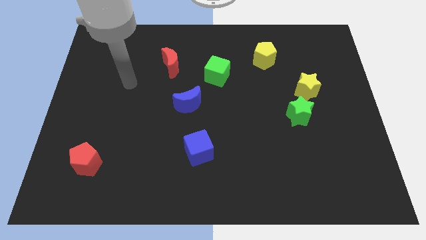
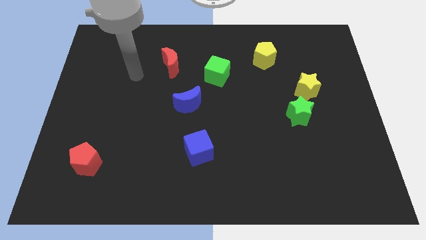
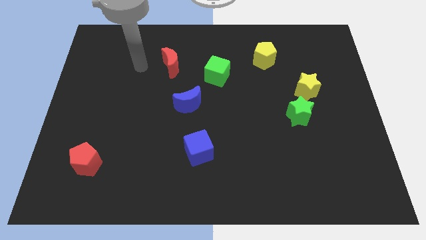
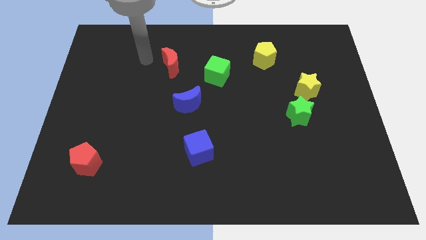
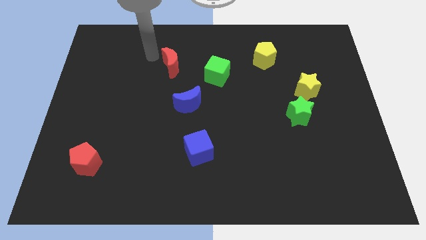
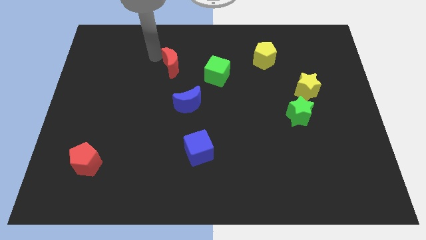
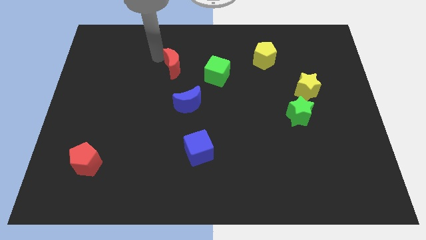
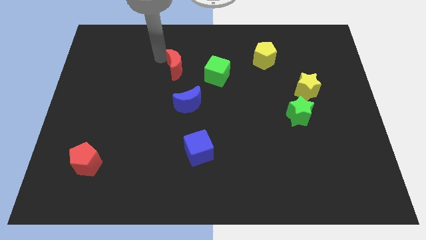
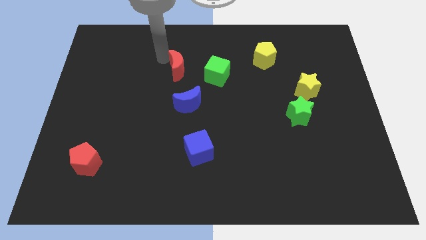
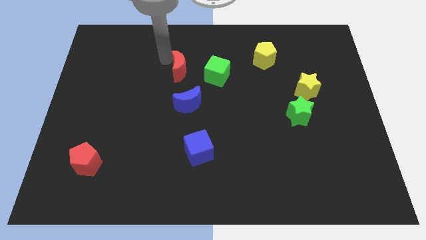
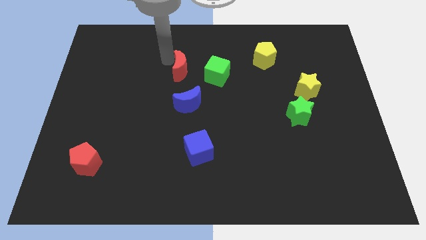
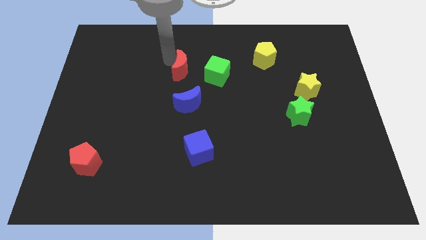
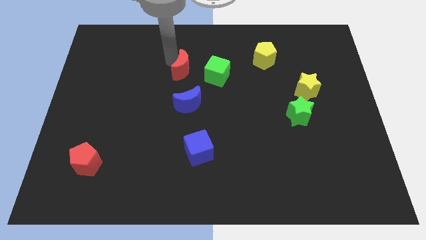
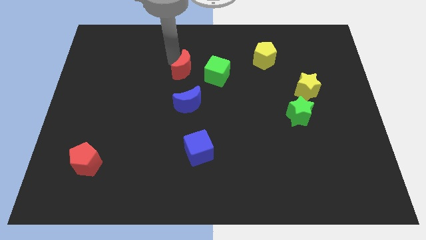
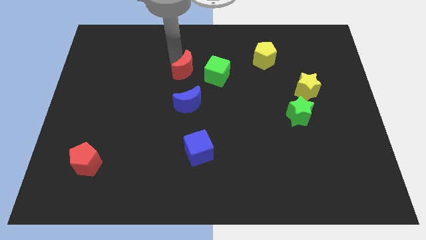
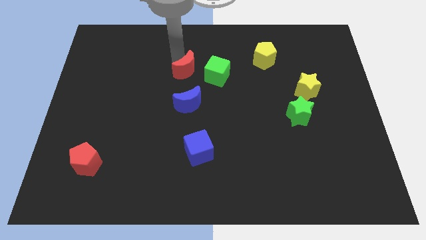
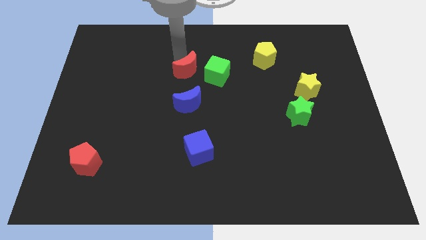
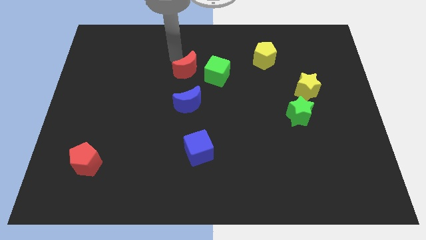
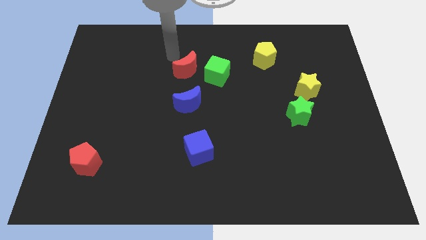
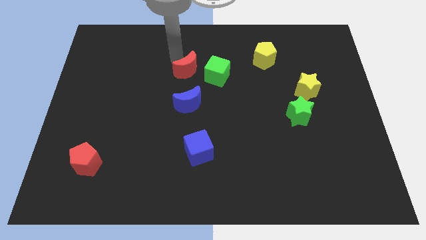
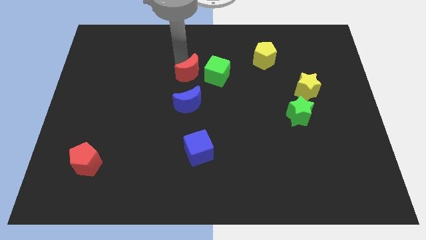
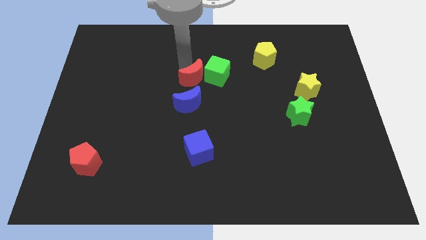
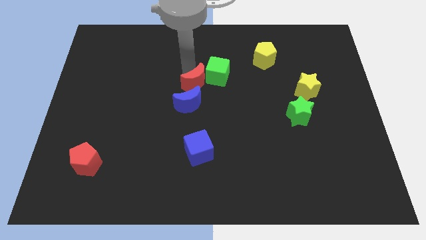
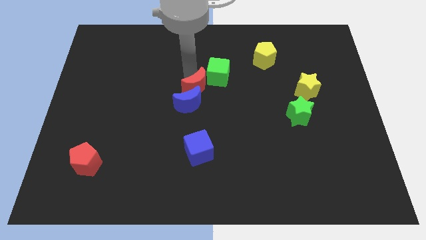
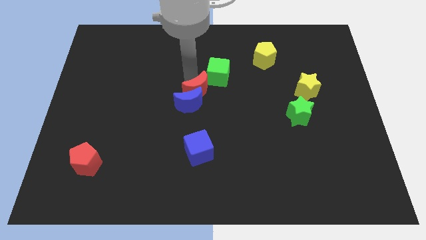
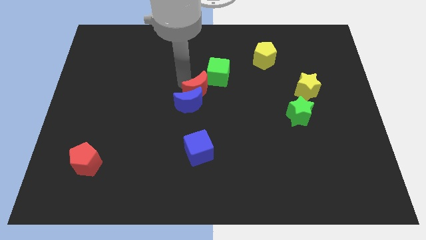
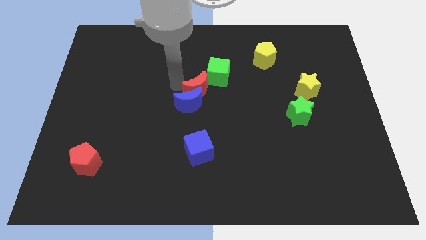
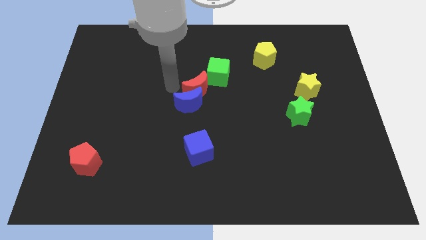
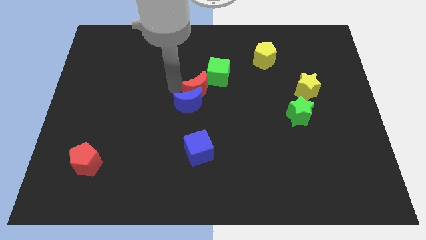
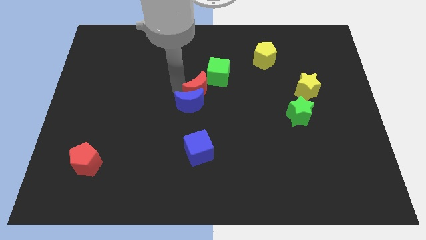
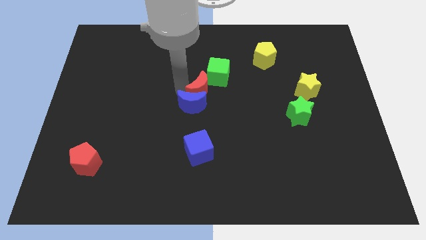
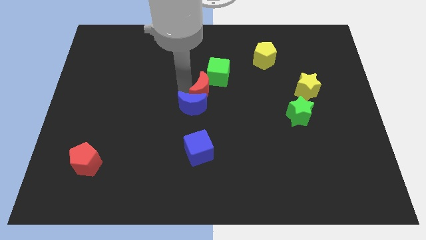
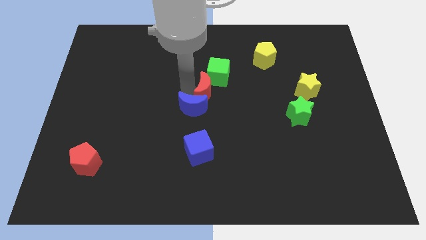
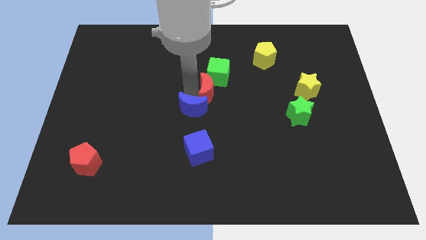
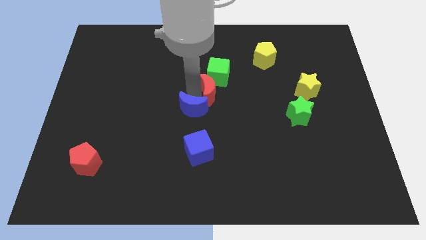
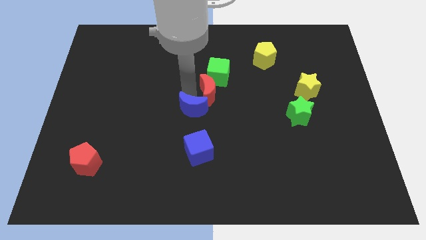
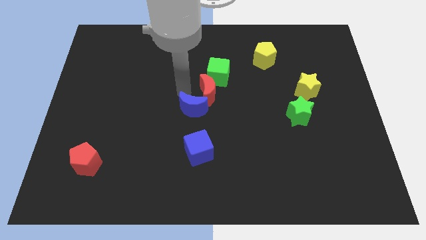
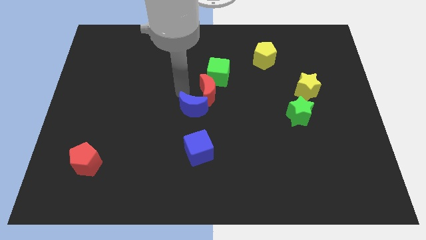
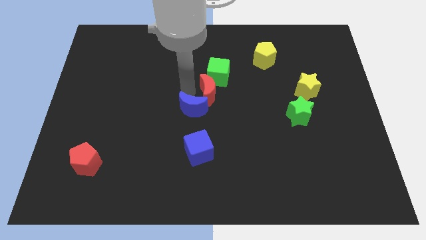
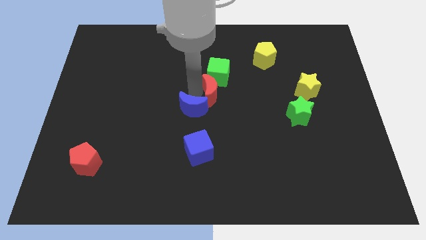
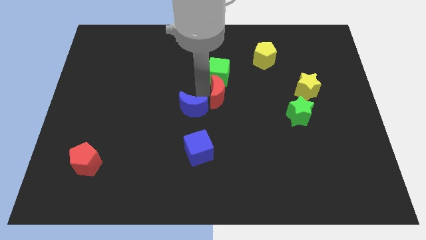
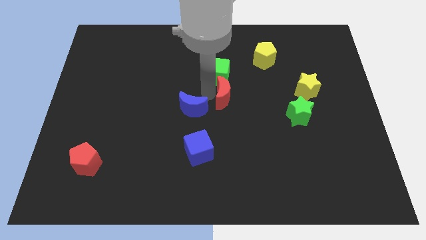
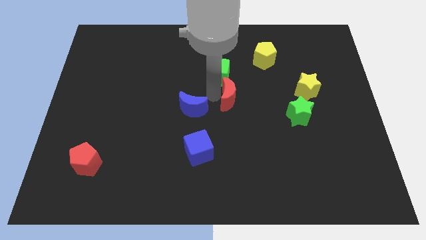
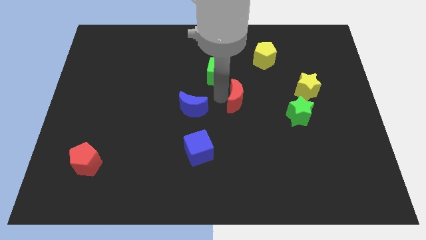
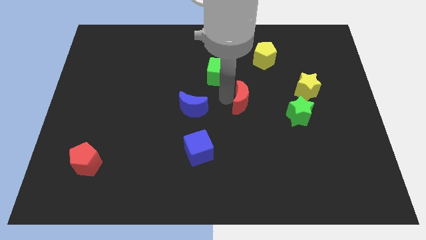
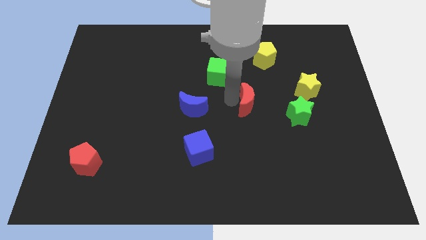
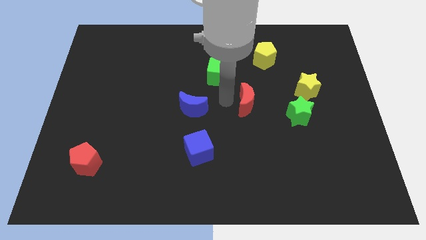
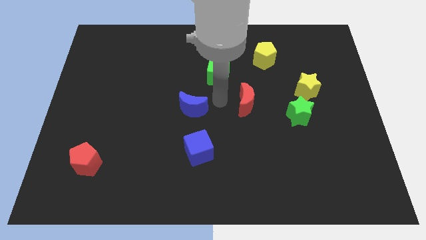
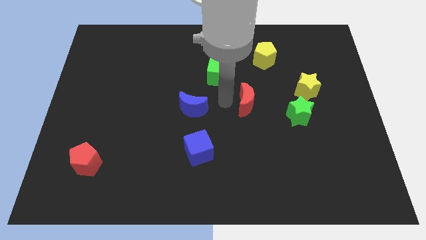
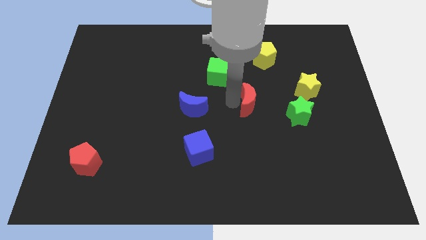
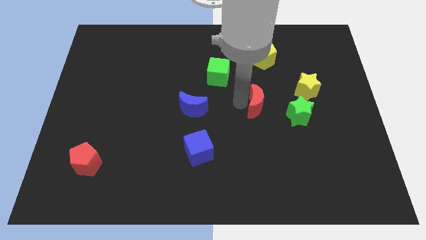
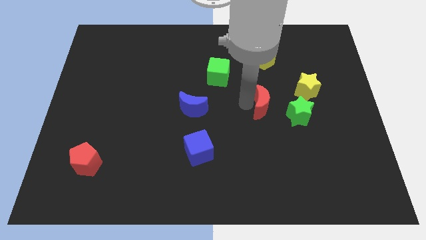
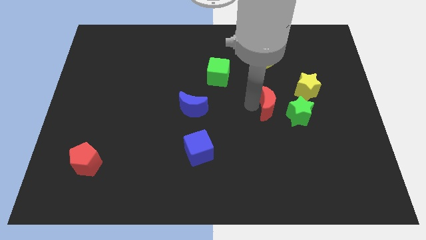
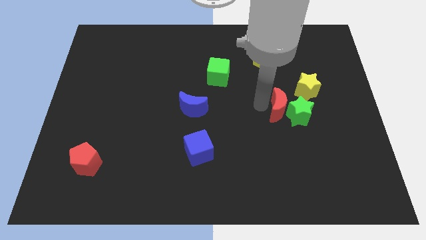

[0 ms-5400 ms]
put the red moon next to the green star
